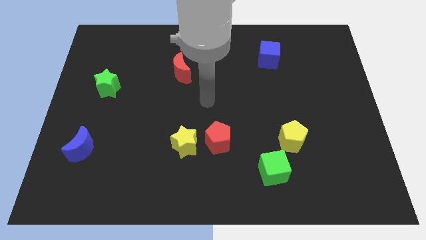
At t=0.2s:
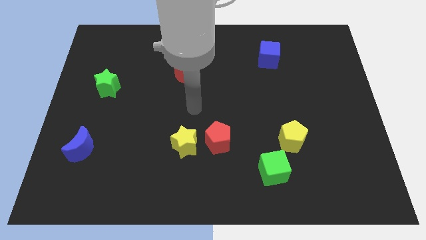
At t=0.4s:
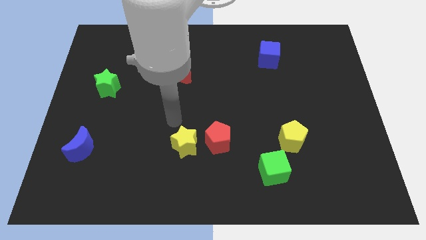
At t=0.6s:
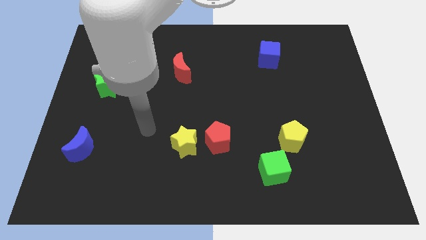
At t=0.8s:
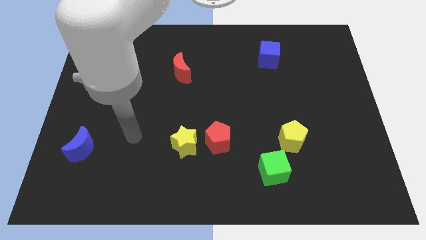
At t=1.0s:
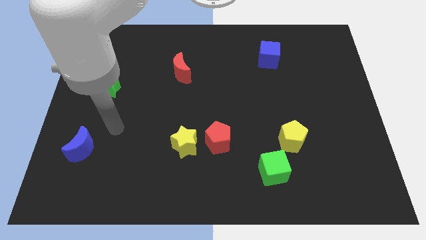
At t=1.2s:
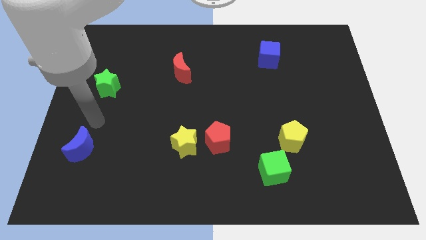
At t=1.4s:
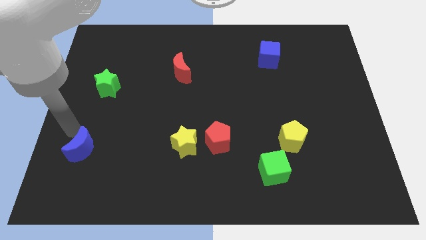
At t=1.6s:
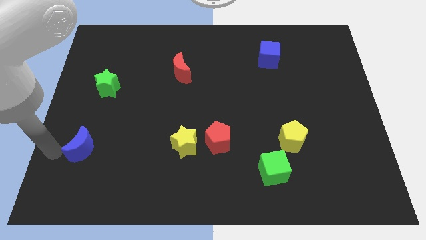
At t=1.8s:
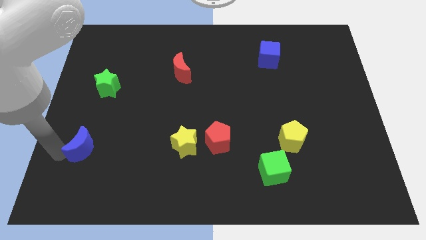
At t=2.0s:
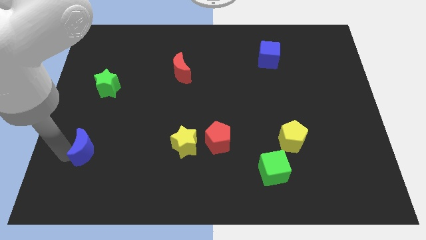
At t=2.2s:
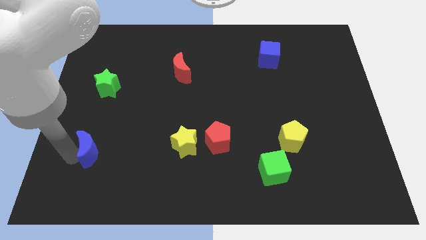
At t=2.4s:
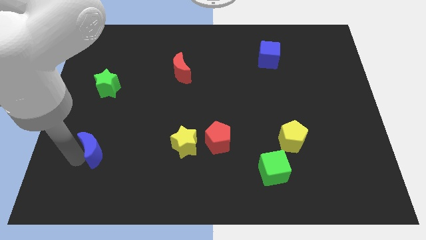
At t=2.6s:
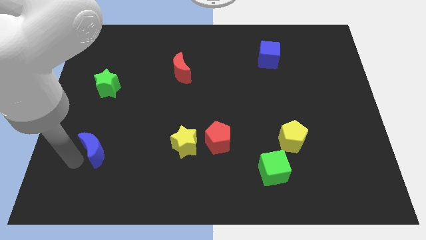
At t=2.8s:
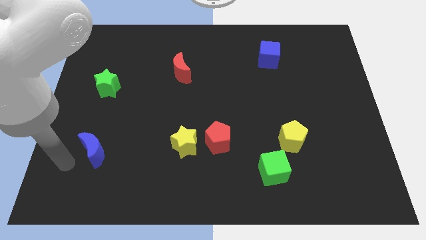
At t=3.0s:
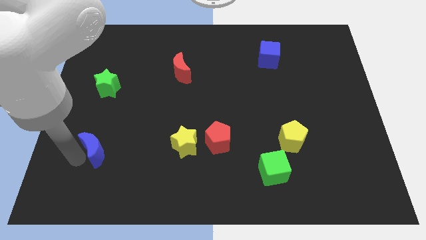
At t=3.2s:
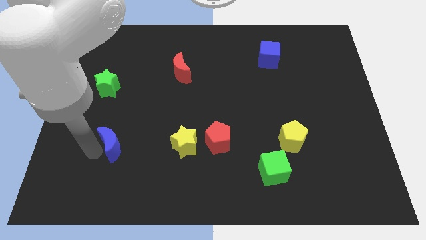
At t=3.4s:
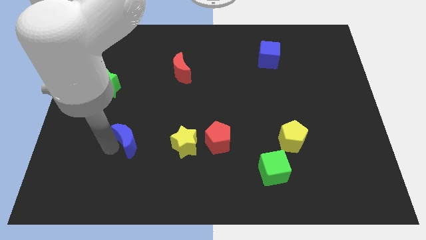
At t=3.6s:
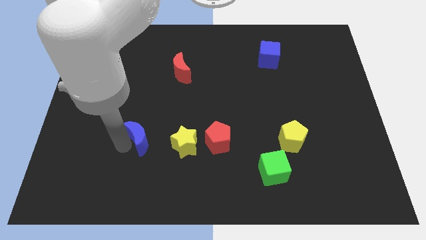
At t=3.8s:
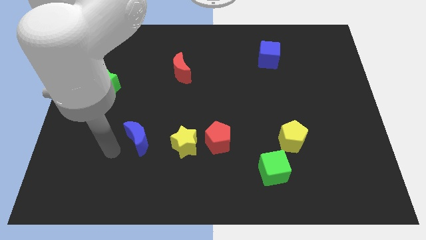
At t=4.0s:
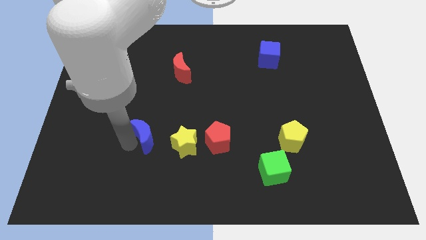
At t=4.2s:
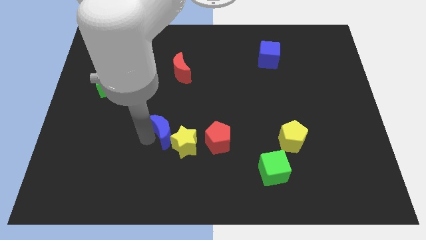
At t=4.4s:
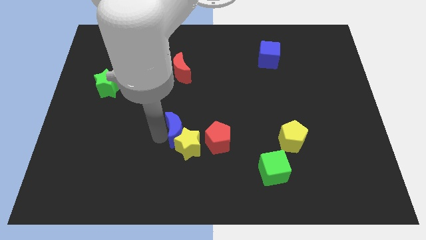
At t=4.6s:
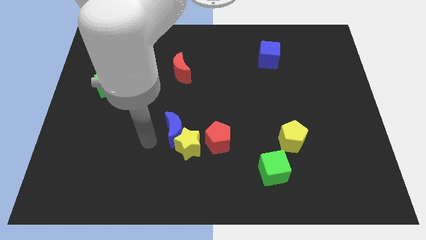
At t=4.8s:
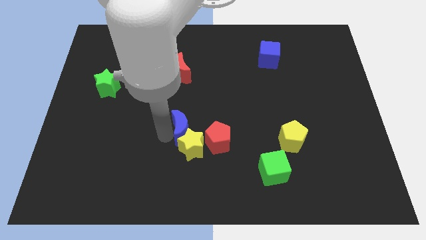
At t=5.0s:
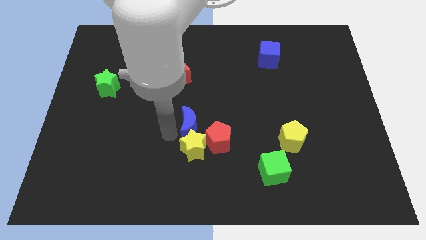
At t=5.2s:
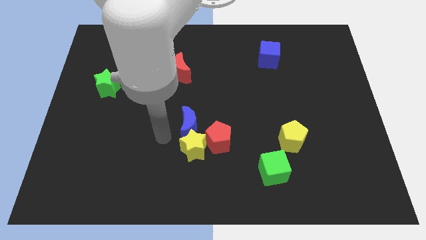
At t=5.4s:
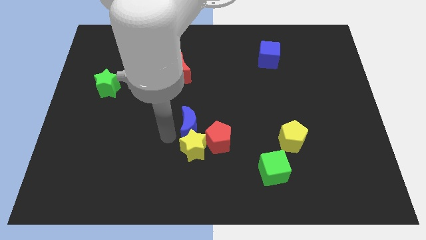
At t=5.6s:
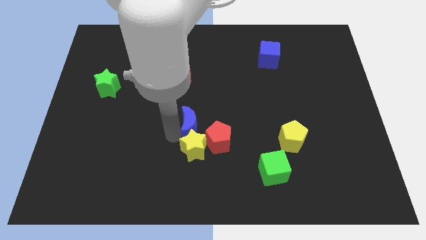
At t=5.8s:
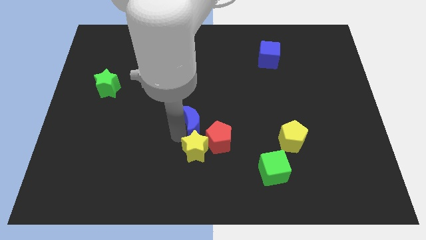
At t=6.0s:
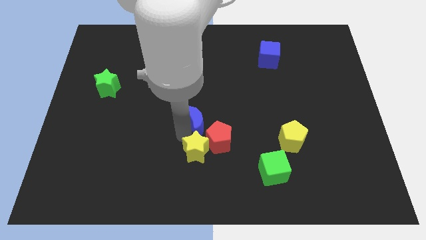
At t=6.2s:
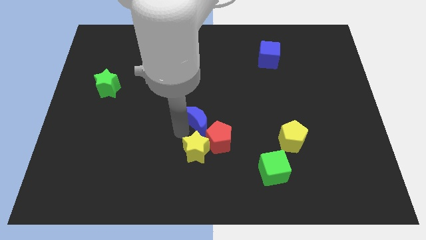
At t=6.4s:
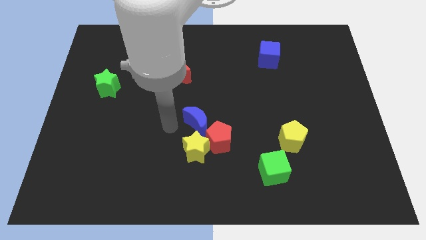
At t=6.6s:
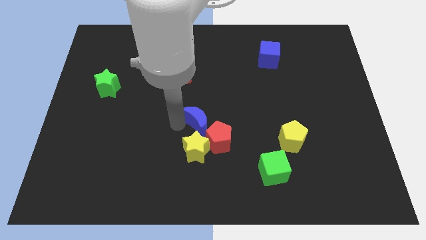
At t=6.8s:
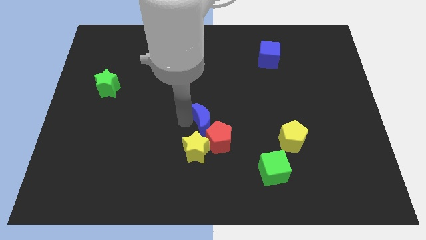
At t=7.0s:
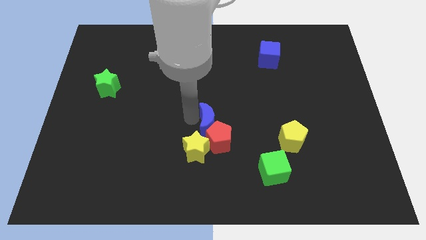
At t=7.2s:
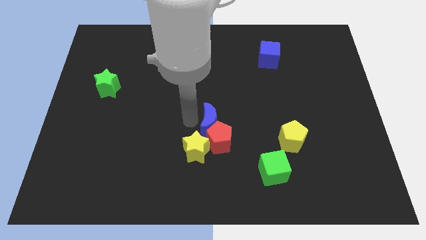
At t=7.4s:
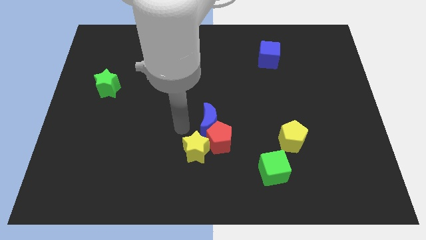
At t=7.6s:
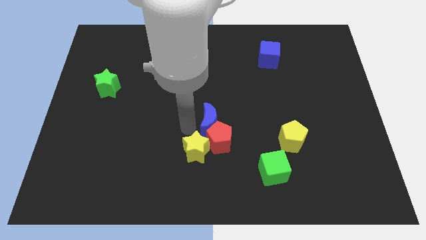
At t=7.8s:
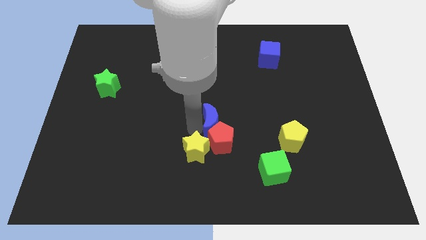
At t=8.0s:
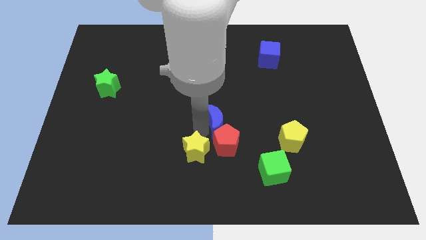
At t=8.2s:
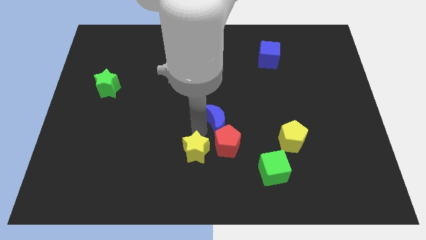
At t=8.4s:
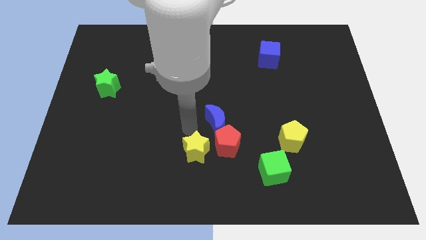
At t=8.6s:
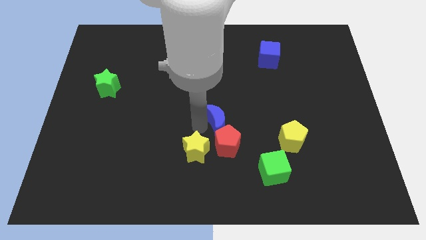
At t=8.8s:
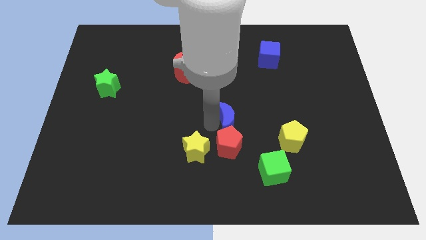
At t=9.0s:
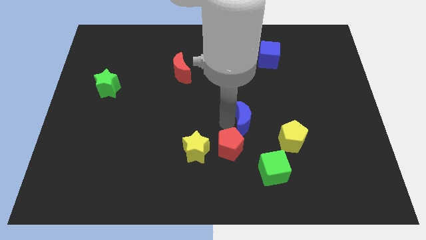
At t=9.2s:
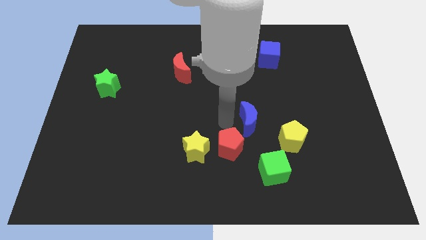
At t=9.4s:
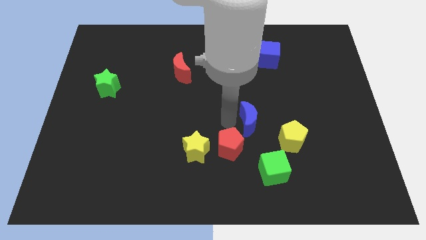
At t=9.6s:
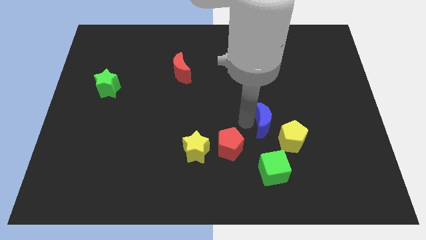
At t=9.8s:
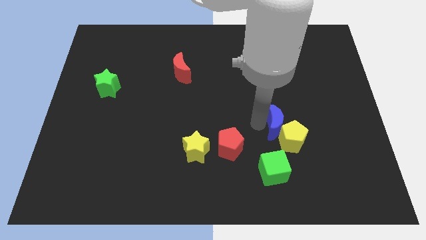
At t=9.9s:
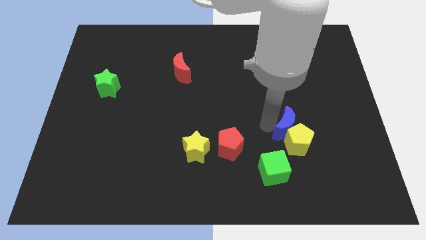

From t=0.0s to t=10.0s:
put the blue moon to the top right of the yellow pentagon

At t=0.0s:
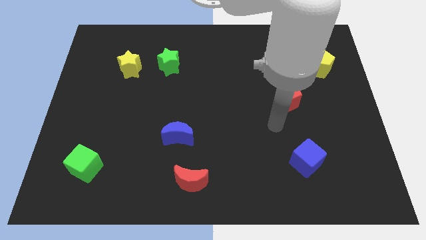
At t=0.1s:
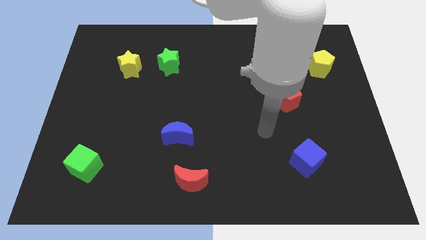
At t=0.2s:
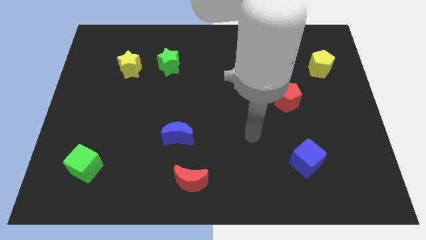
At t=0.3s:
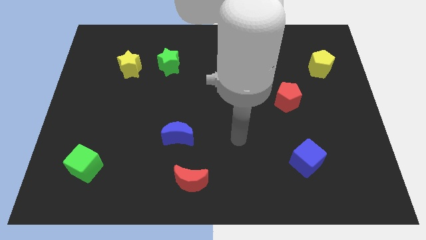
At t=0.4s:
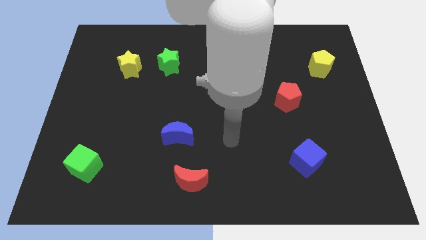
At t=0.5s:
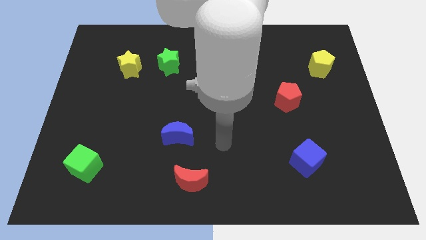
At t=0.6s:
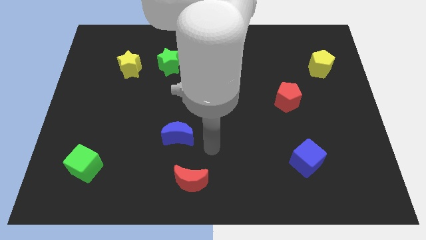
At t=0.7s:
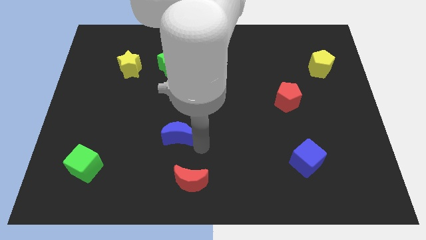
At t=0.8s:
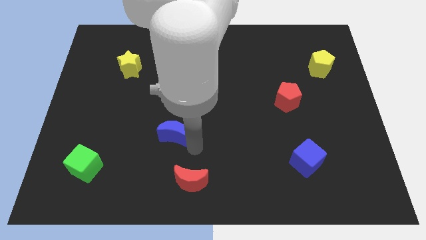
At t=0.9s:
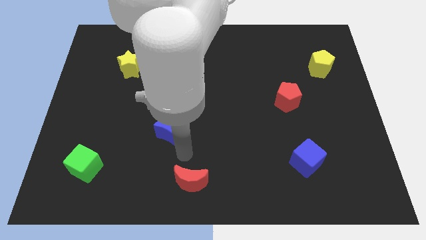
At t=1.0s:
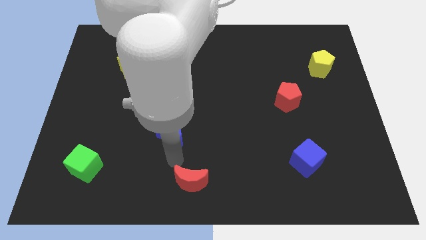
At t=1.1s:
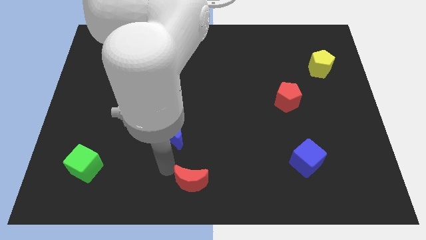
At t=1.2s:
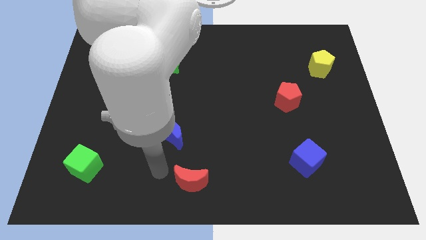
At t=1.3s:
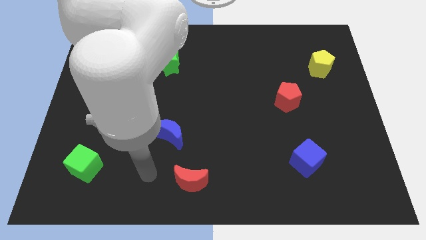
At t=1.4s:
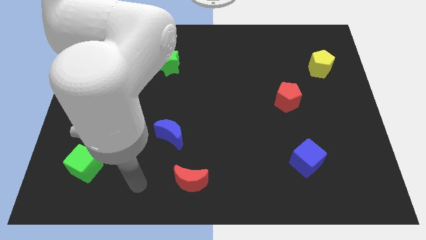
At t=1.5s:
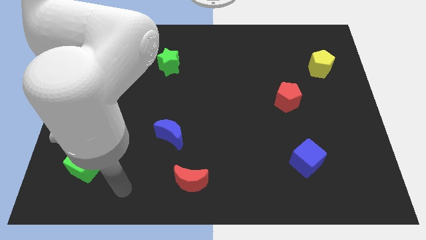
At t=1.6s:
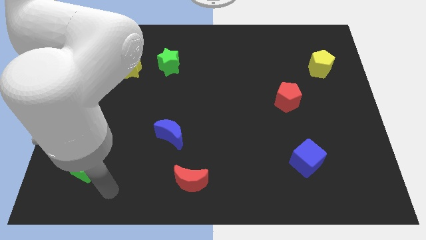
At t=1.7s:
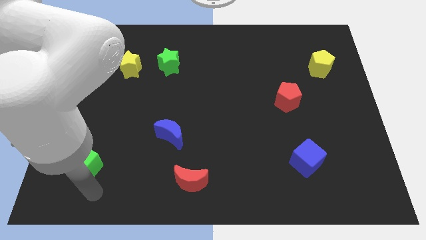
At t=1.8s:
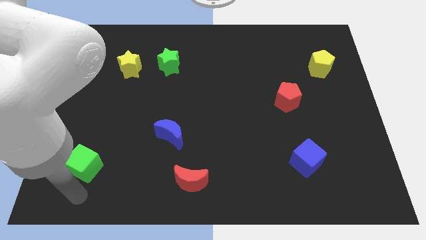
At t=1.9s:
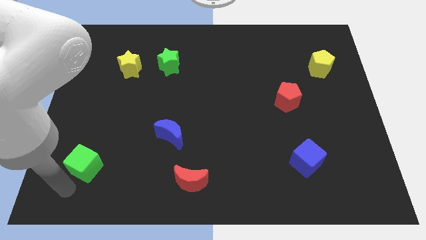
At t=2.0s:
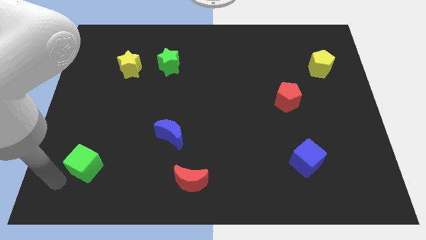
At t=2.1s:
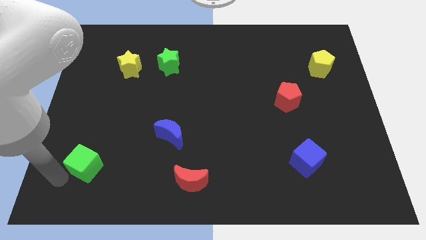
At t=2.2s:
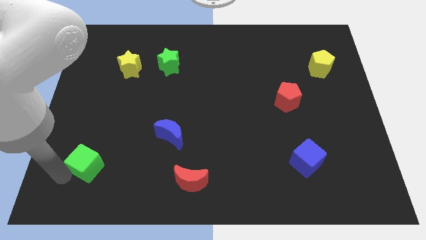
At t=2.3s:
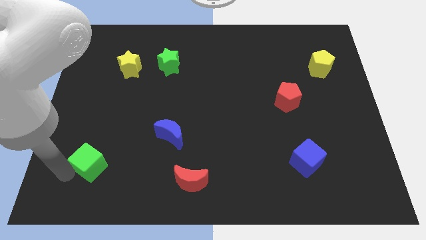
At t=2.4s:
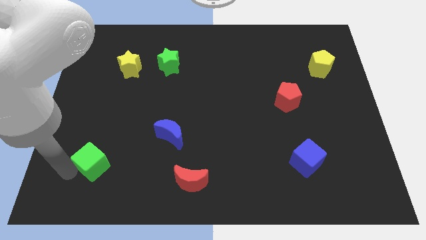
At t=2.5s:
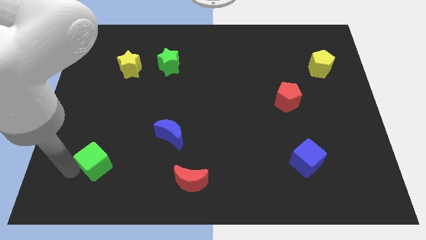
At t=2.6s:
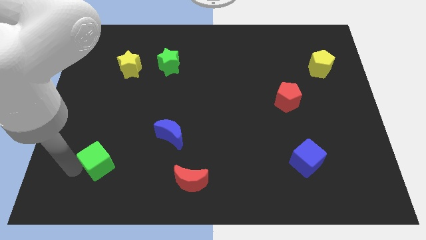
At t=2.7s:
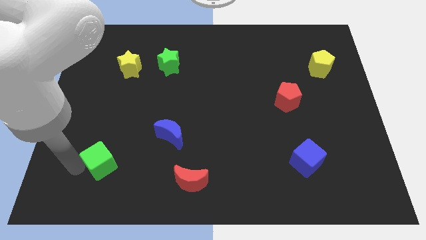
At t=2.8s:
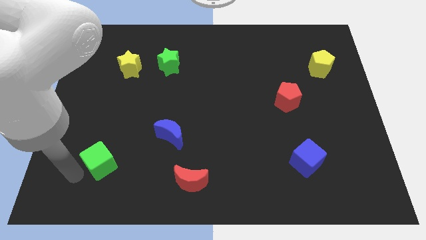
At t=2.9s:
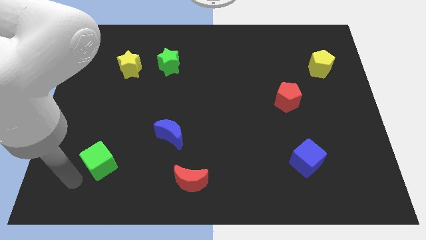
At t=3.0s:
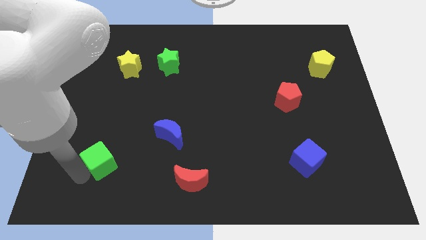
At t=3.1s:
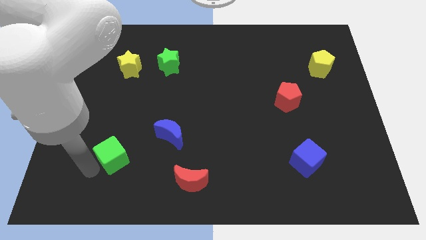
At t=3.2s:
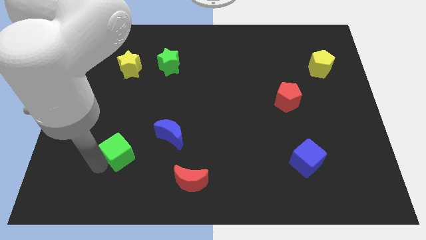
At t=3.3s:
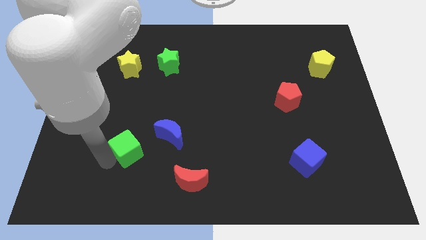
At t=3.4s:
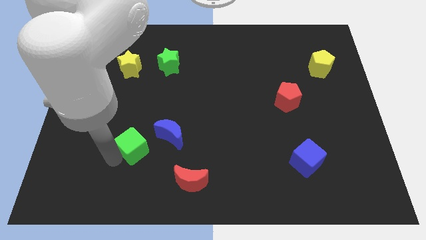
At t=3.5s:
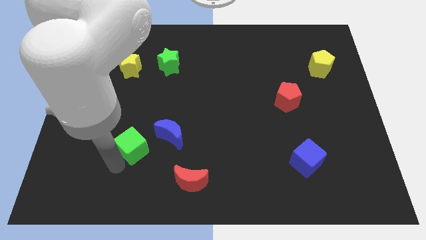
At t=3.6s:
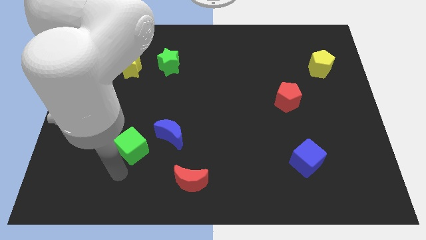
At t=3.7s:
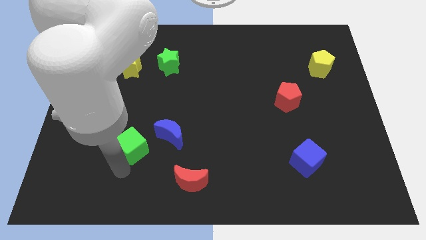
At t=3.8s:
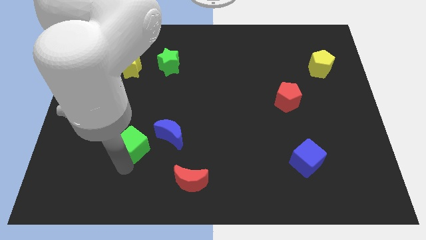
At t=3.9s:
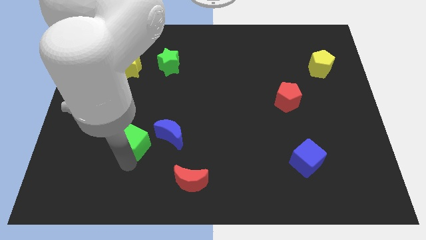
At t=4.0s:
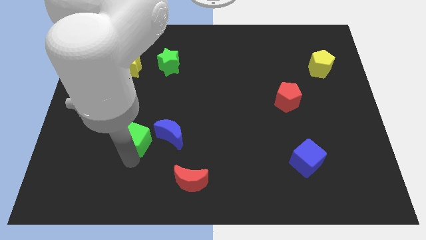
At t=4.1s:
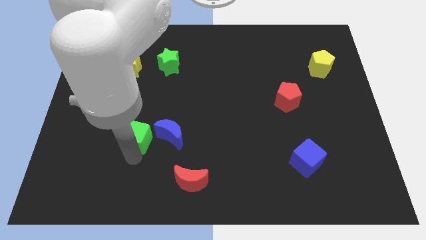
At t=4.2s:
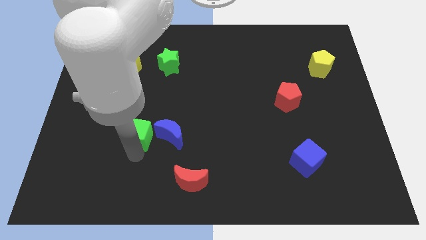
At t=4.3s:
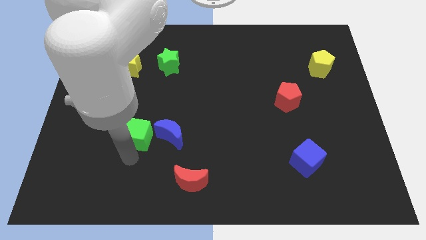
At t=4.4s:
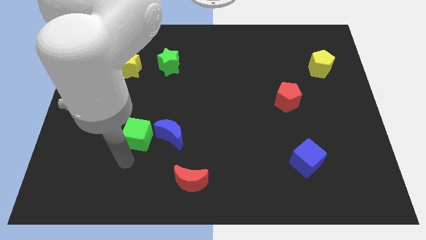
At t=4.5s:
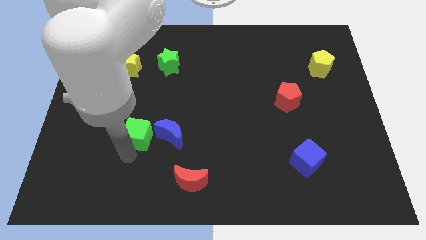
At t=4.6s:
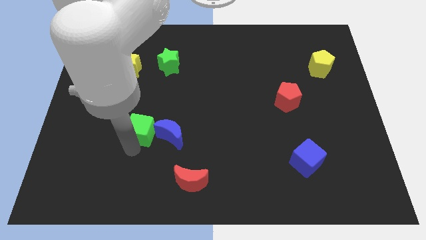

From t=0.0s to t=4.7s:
put the green cube diagonally up and to the left of the blue moon
